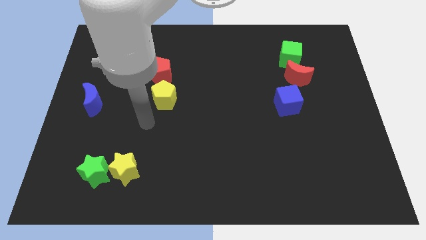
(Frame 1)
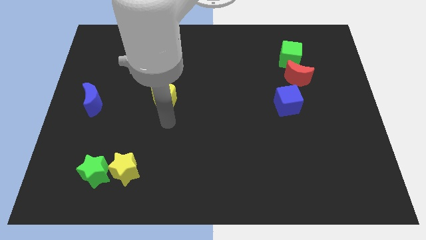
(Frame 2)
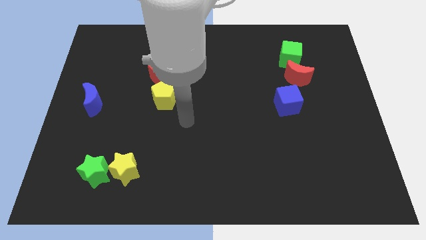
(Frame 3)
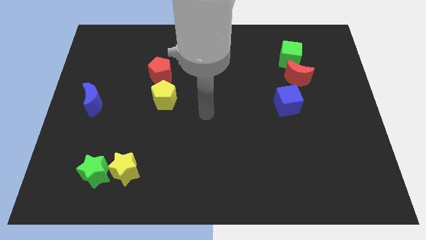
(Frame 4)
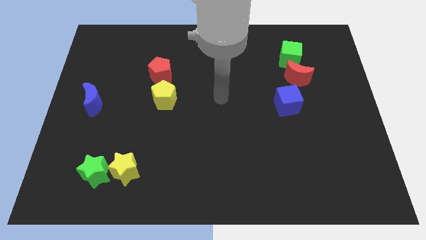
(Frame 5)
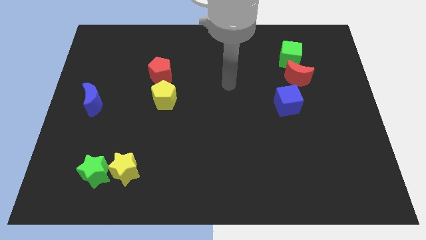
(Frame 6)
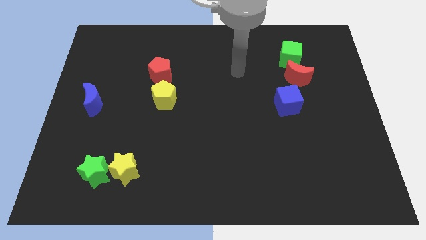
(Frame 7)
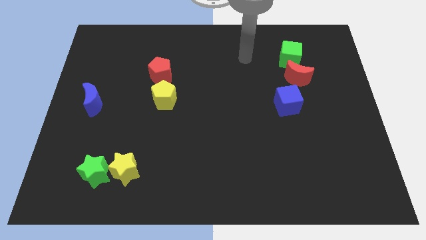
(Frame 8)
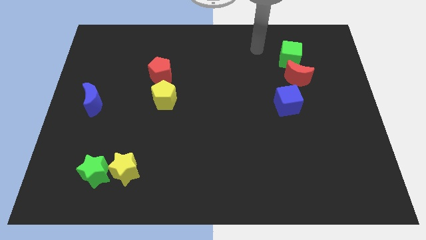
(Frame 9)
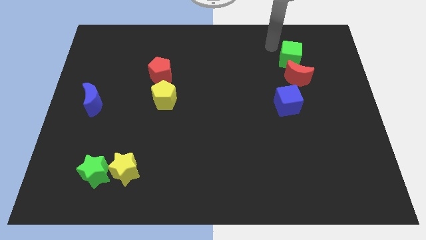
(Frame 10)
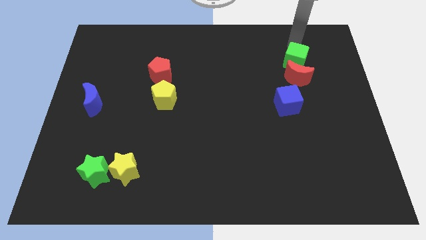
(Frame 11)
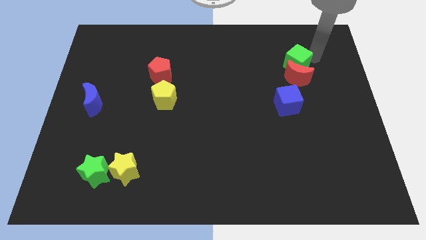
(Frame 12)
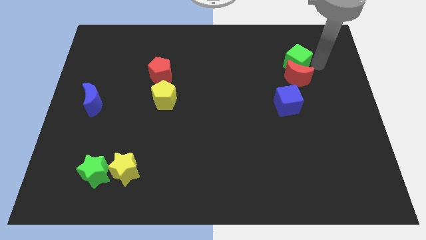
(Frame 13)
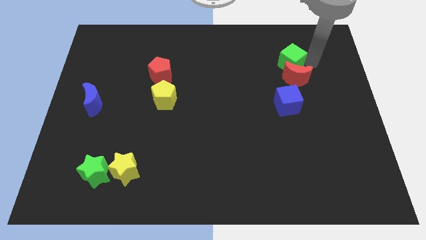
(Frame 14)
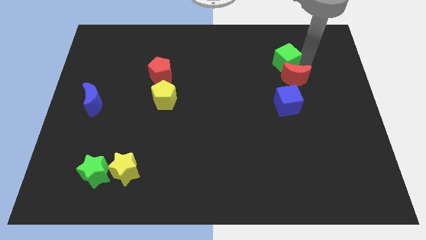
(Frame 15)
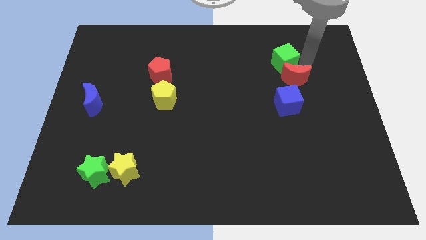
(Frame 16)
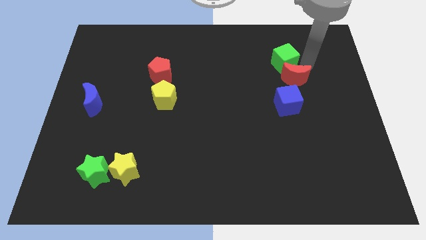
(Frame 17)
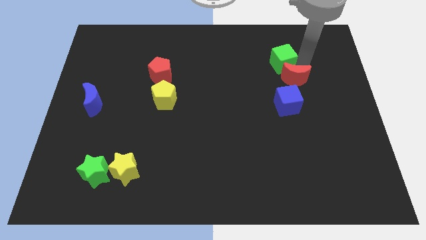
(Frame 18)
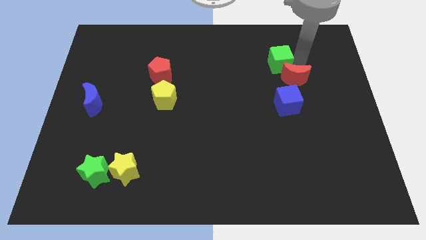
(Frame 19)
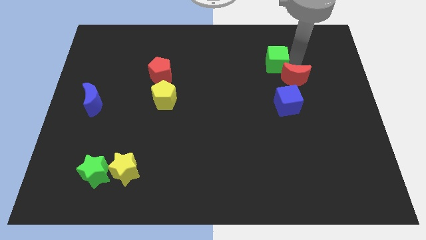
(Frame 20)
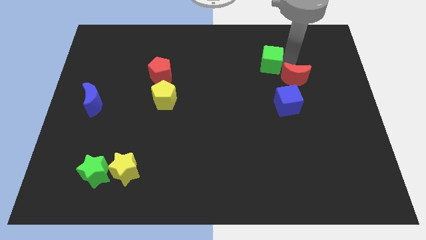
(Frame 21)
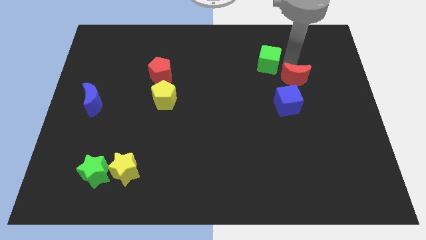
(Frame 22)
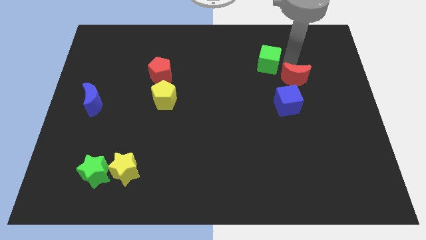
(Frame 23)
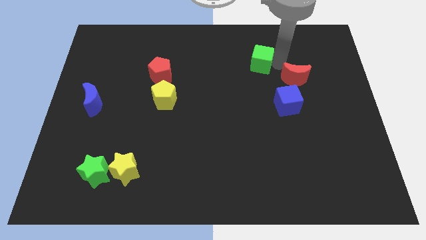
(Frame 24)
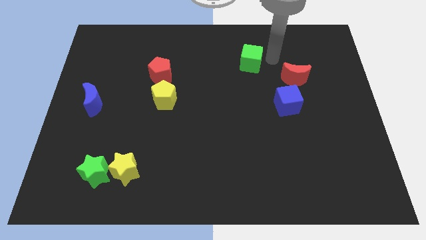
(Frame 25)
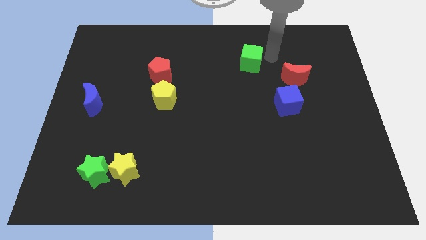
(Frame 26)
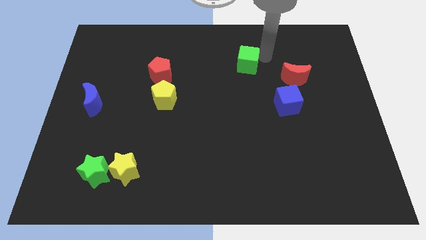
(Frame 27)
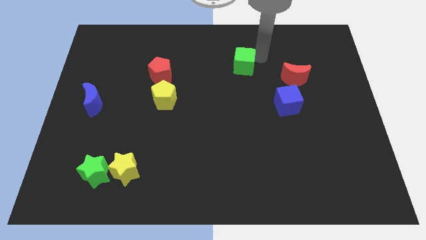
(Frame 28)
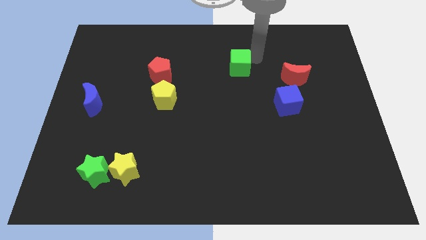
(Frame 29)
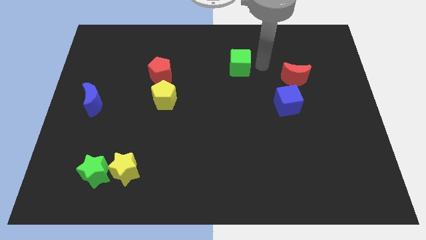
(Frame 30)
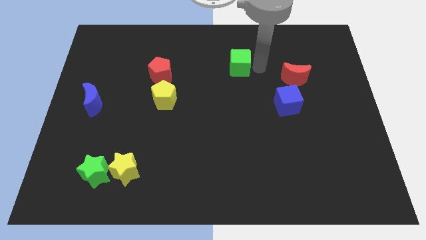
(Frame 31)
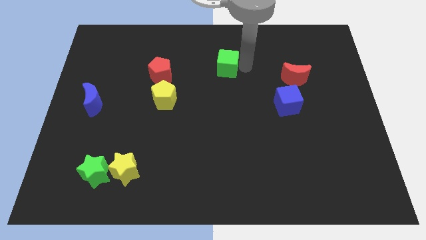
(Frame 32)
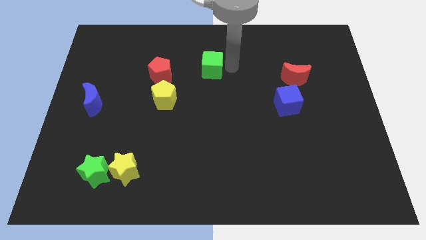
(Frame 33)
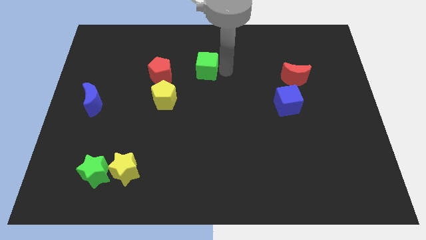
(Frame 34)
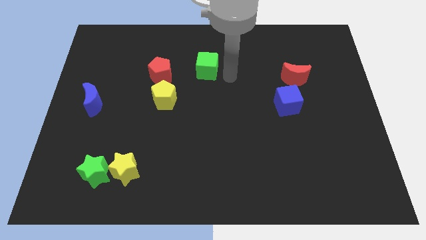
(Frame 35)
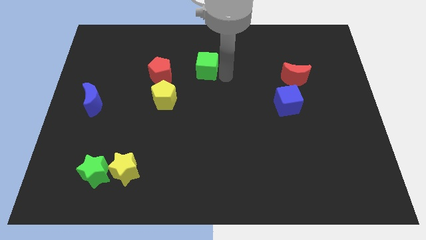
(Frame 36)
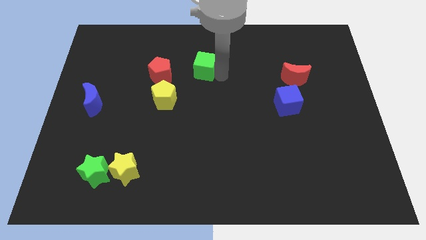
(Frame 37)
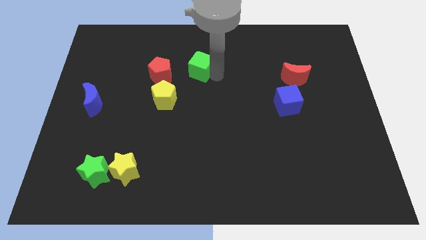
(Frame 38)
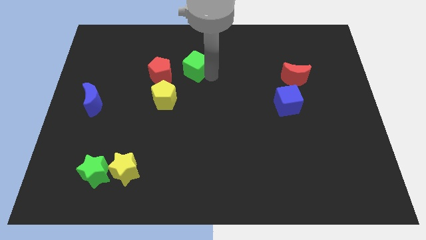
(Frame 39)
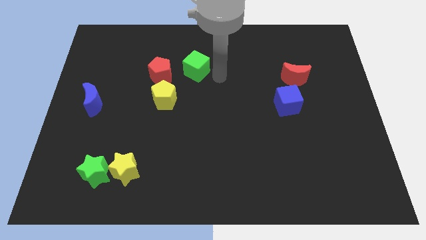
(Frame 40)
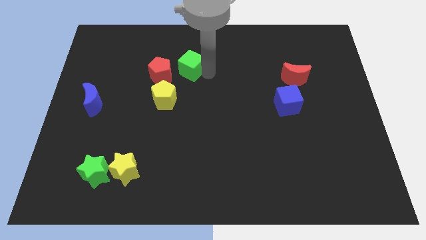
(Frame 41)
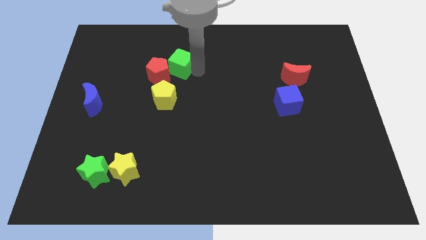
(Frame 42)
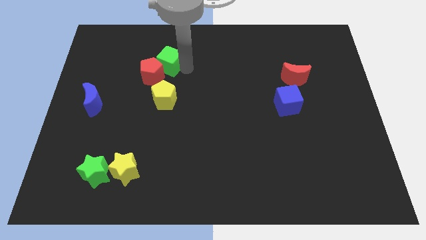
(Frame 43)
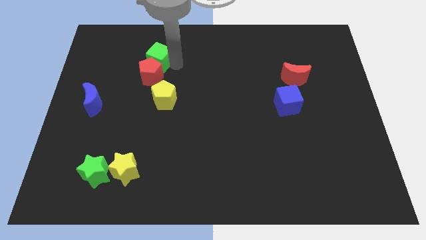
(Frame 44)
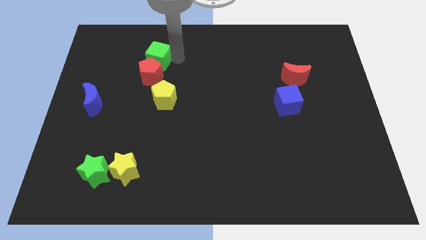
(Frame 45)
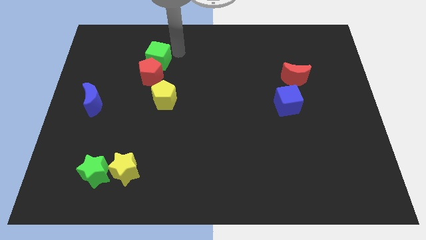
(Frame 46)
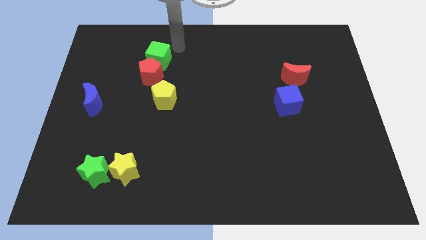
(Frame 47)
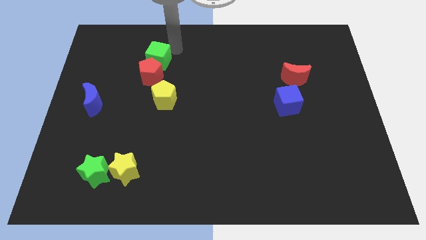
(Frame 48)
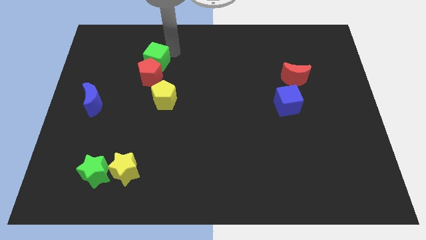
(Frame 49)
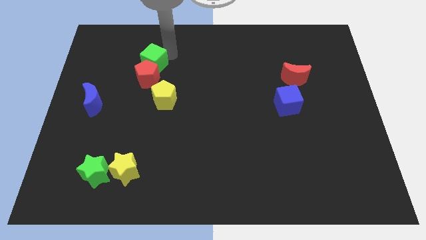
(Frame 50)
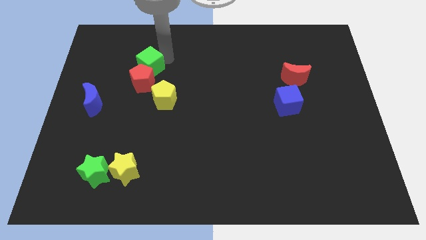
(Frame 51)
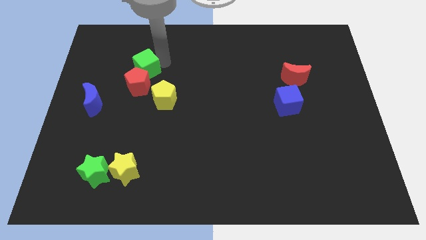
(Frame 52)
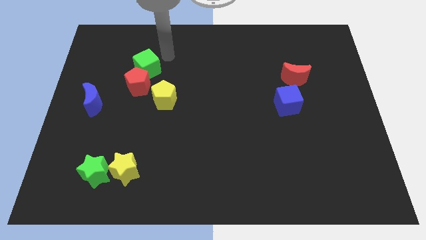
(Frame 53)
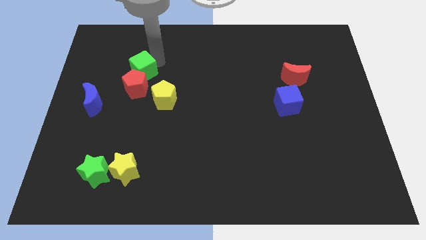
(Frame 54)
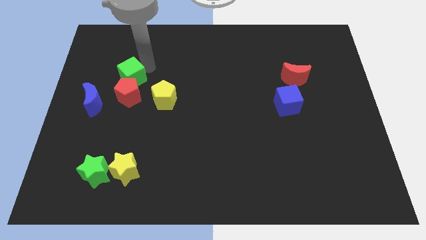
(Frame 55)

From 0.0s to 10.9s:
put the green cube to the top right side of the blue moon

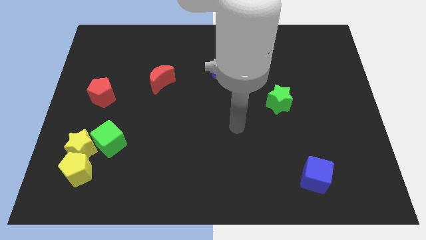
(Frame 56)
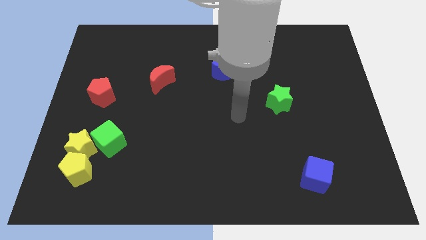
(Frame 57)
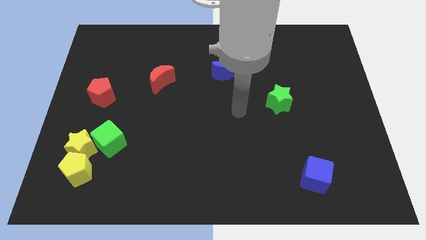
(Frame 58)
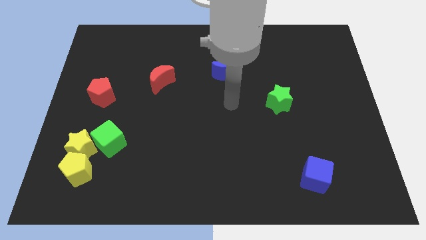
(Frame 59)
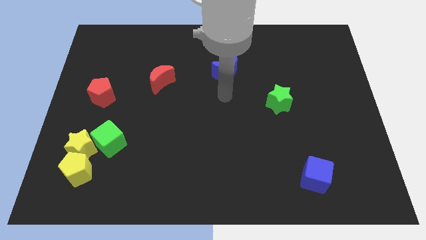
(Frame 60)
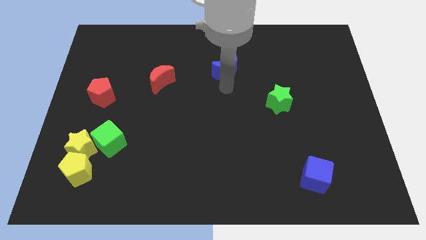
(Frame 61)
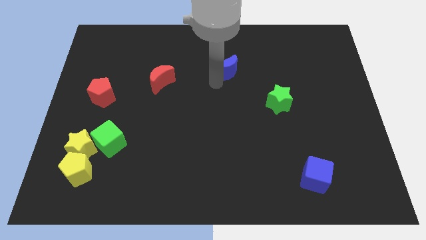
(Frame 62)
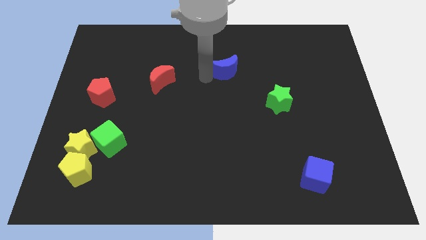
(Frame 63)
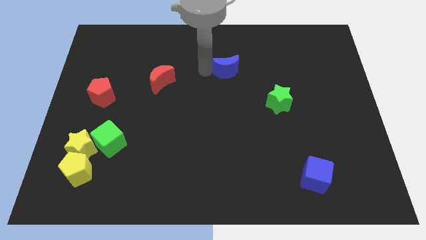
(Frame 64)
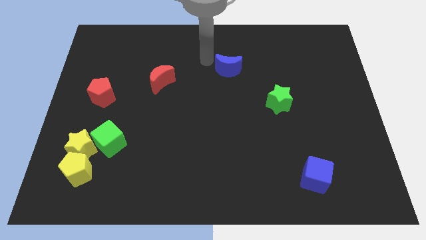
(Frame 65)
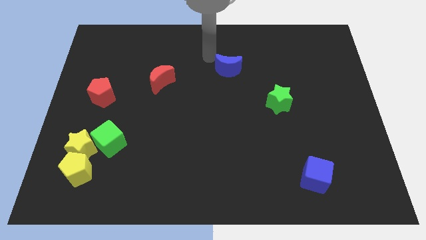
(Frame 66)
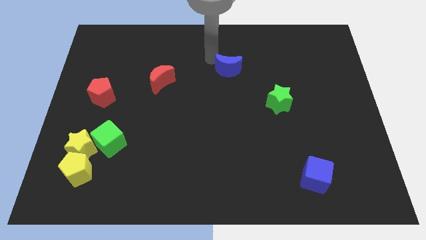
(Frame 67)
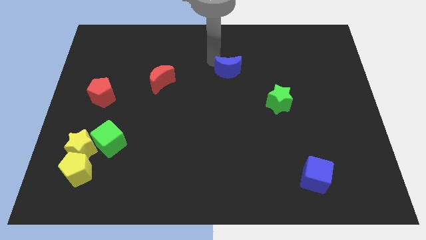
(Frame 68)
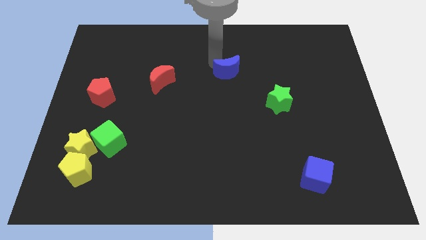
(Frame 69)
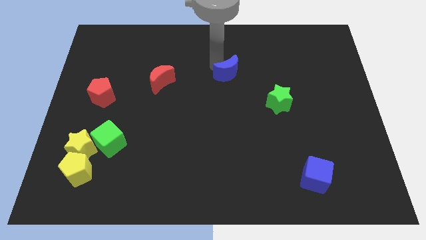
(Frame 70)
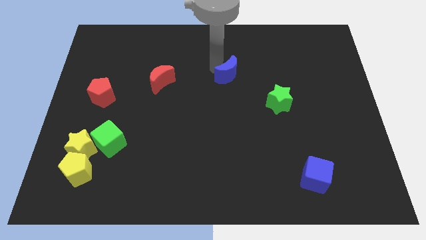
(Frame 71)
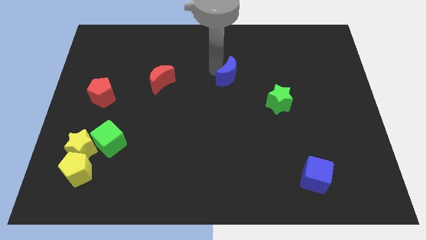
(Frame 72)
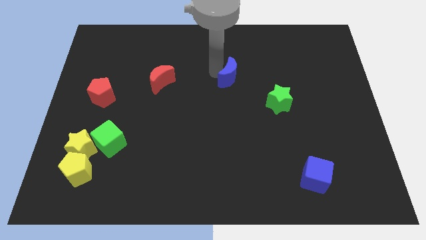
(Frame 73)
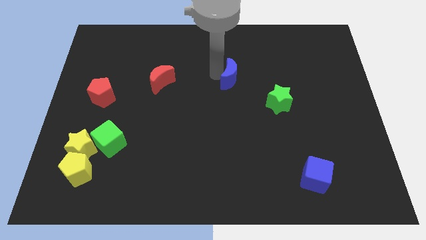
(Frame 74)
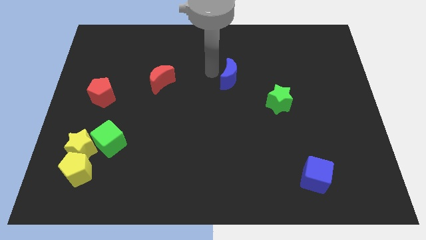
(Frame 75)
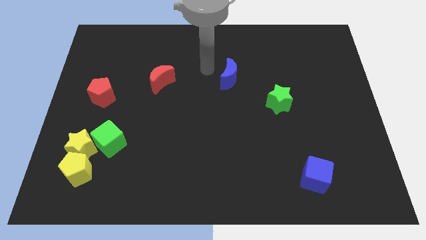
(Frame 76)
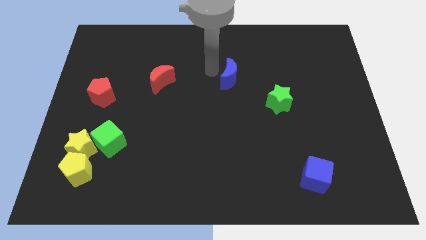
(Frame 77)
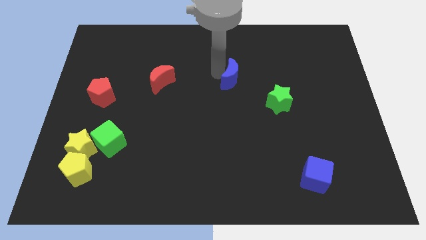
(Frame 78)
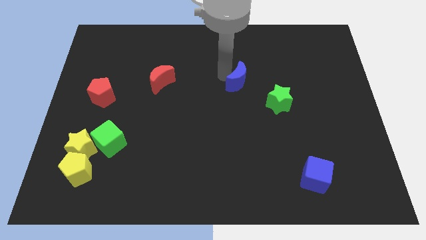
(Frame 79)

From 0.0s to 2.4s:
slide the blue moon to the top left of the green star
